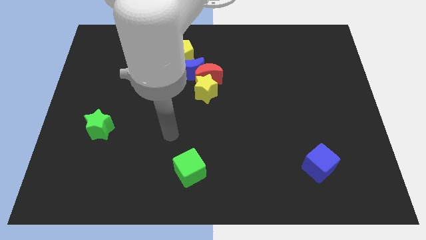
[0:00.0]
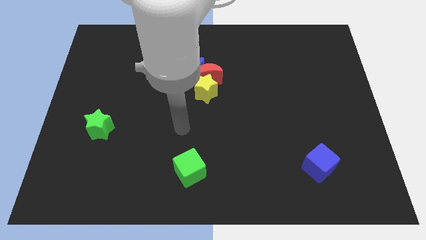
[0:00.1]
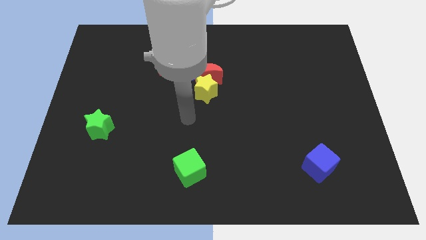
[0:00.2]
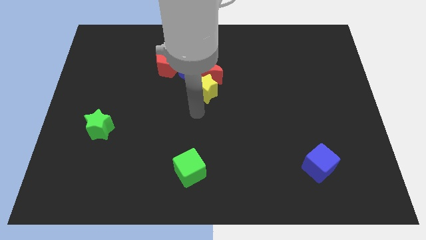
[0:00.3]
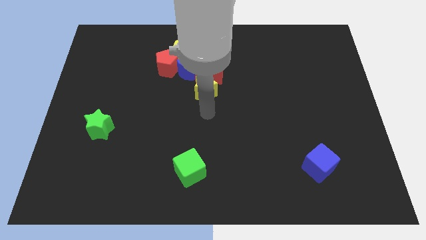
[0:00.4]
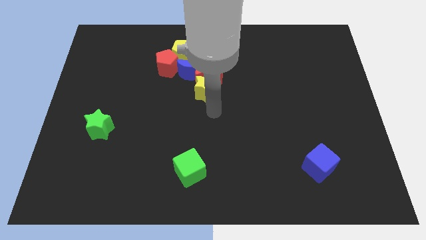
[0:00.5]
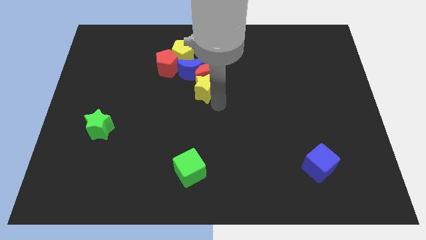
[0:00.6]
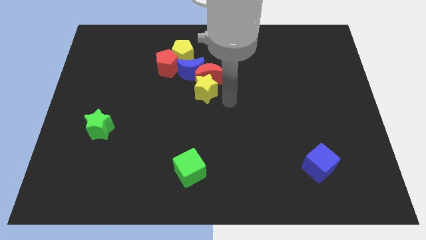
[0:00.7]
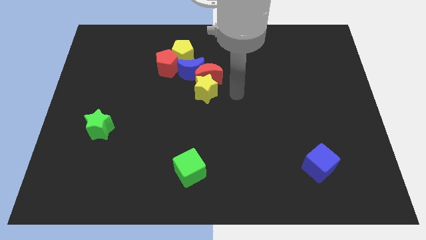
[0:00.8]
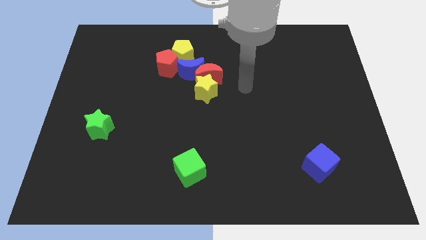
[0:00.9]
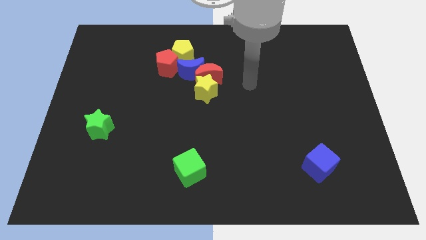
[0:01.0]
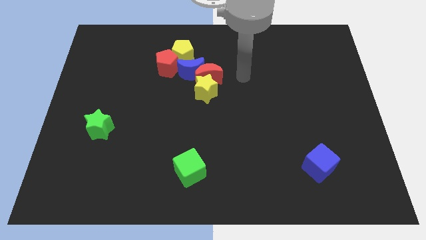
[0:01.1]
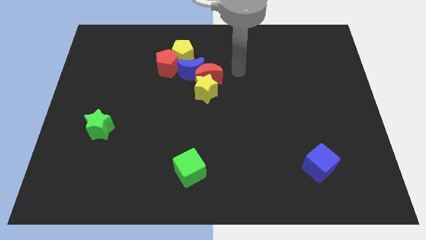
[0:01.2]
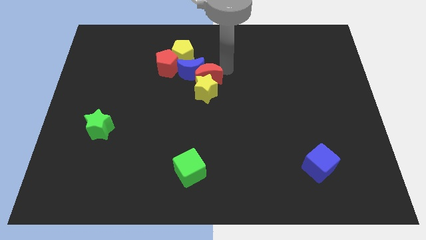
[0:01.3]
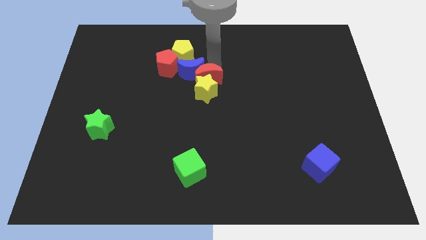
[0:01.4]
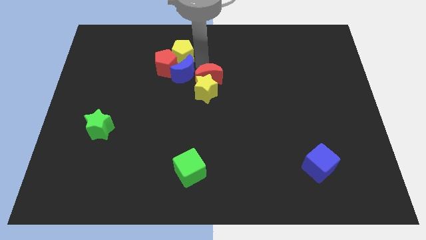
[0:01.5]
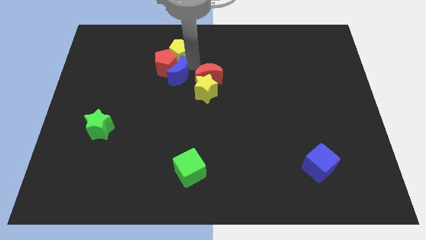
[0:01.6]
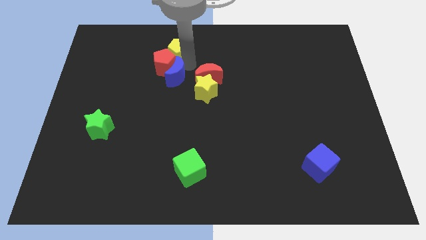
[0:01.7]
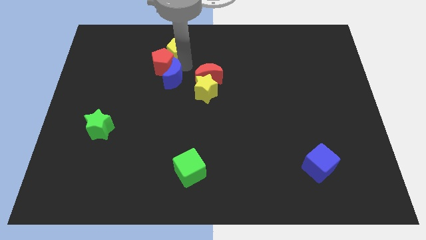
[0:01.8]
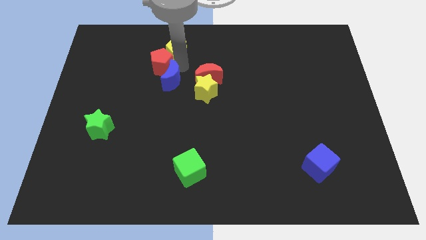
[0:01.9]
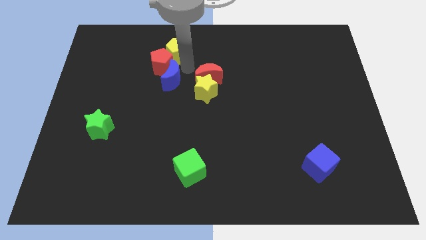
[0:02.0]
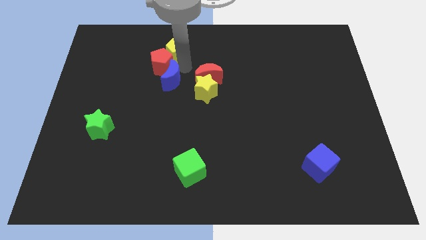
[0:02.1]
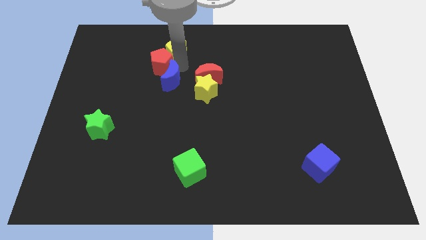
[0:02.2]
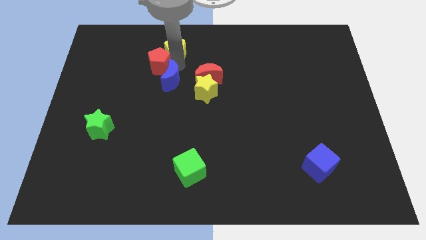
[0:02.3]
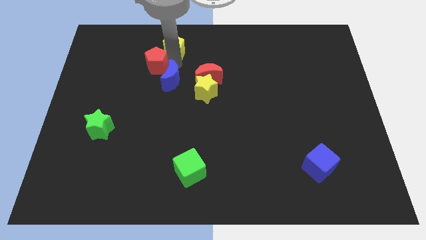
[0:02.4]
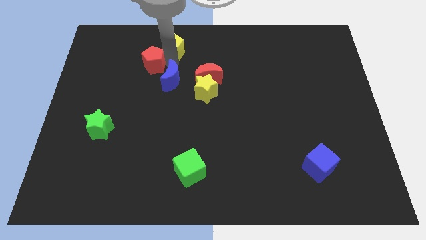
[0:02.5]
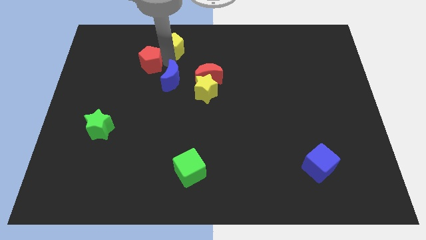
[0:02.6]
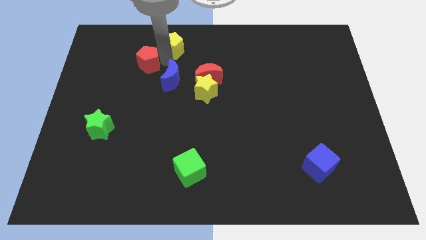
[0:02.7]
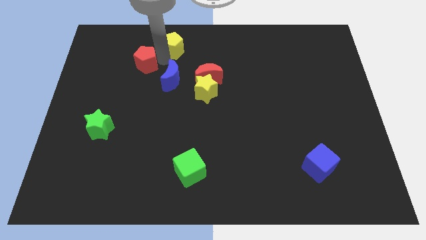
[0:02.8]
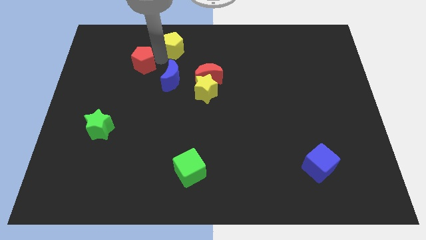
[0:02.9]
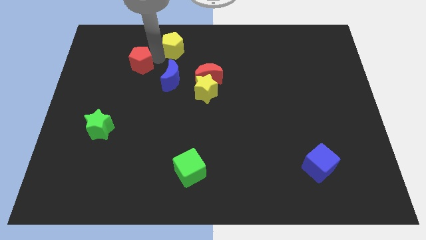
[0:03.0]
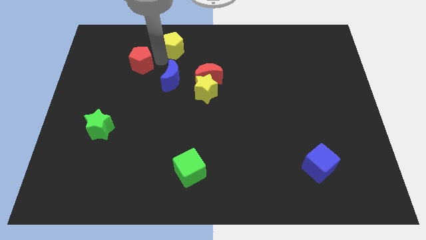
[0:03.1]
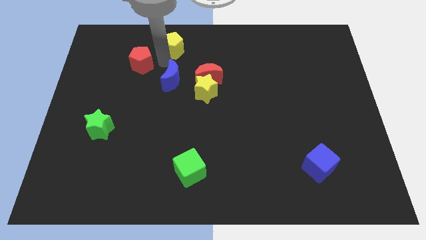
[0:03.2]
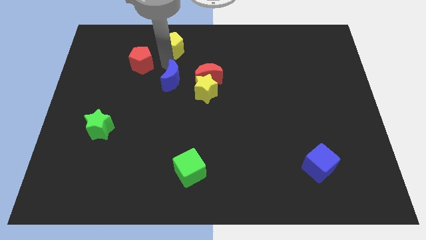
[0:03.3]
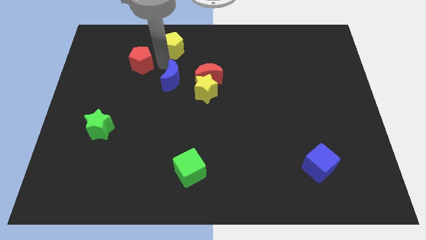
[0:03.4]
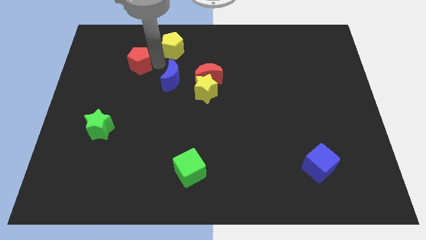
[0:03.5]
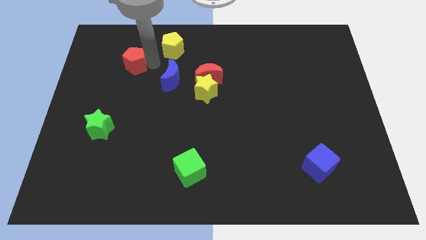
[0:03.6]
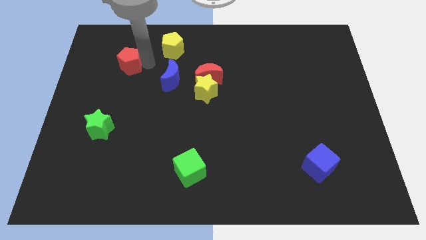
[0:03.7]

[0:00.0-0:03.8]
move the red pentagon away from the yellow pentagon and blue moon

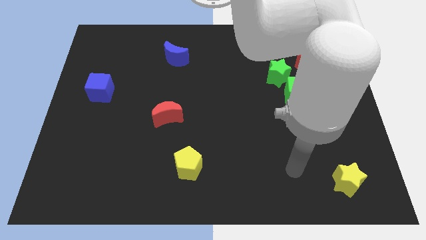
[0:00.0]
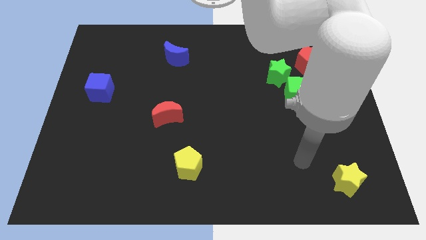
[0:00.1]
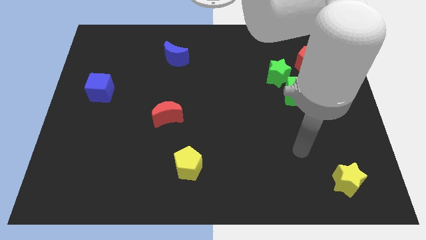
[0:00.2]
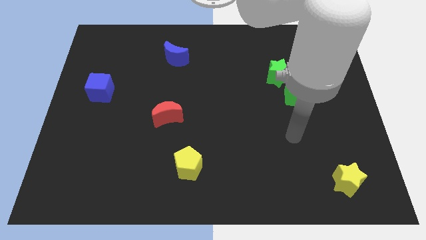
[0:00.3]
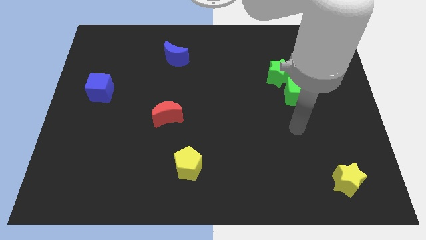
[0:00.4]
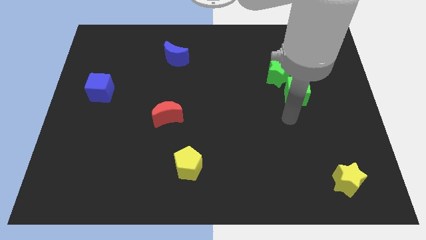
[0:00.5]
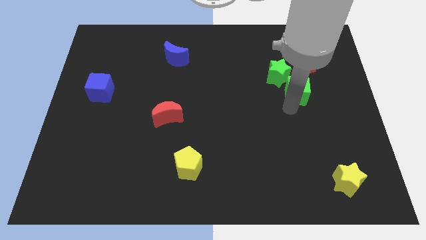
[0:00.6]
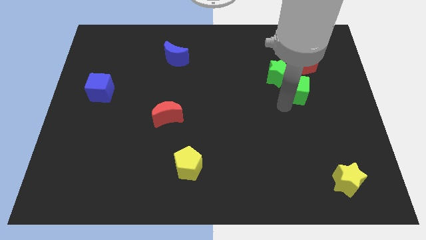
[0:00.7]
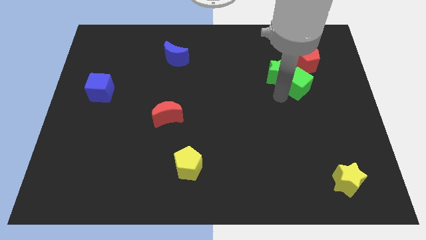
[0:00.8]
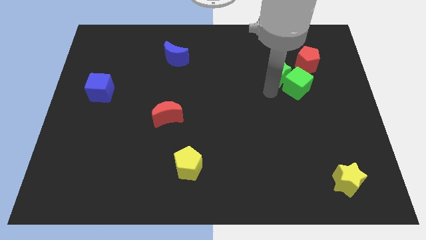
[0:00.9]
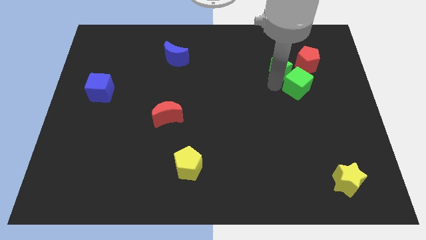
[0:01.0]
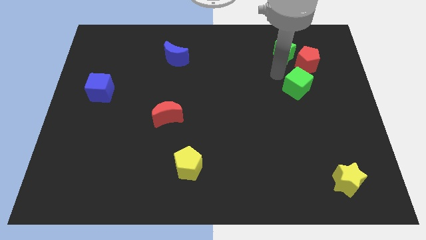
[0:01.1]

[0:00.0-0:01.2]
move the green cube away from the green star

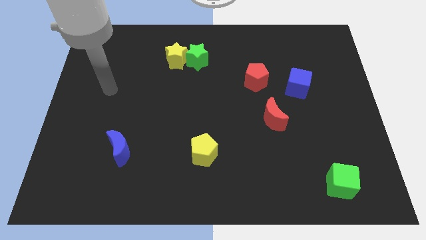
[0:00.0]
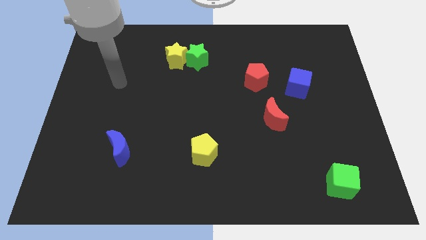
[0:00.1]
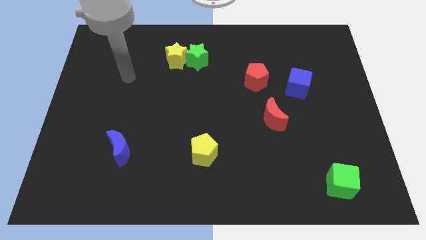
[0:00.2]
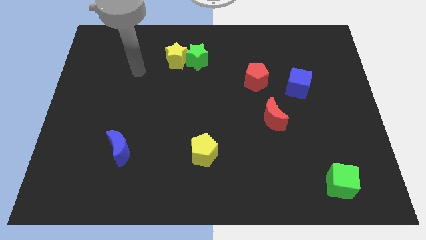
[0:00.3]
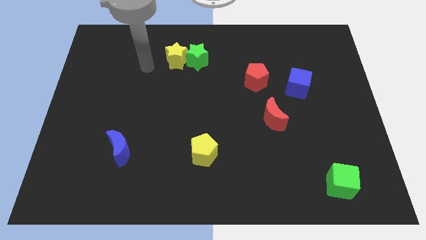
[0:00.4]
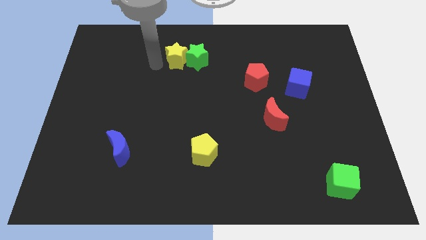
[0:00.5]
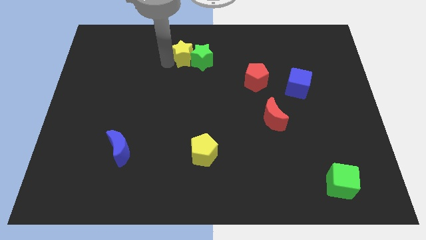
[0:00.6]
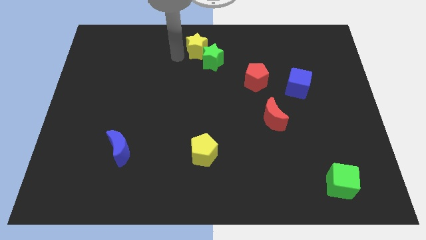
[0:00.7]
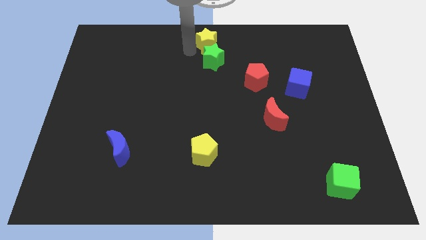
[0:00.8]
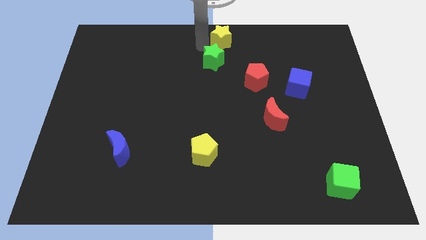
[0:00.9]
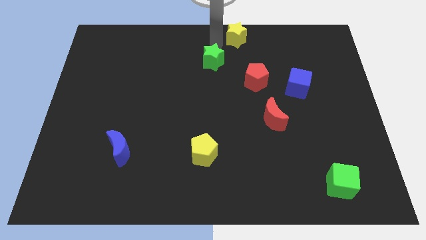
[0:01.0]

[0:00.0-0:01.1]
separate the green star from the yellow star

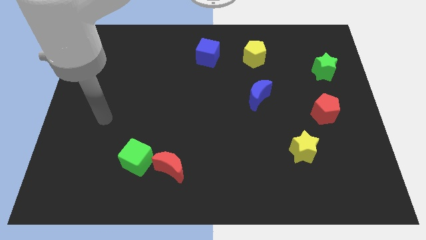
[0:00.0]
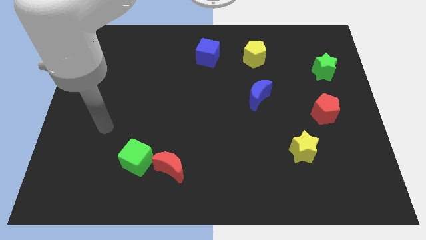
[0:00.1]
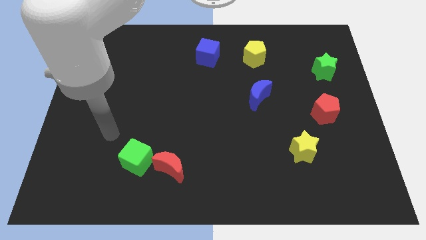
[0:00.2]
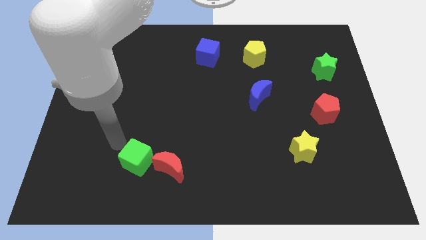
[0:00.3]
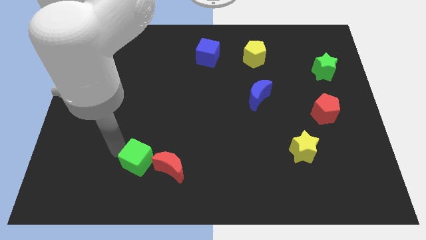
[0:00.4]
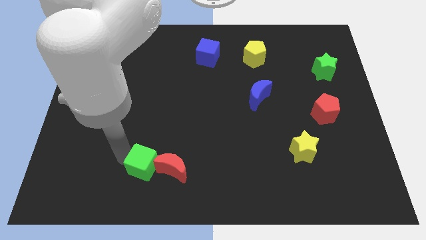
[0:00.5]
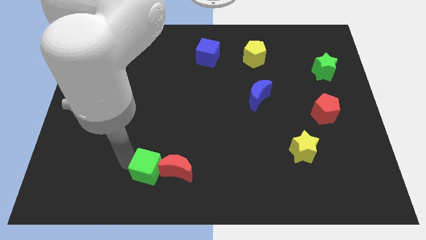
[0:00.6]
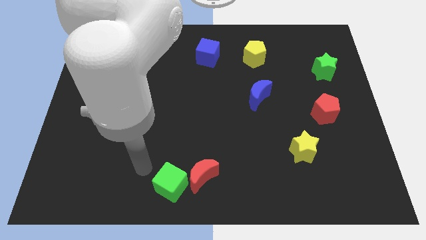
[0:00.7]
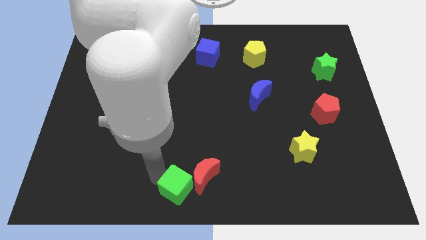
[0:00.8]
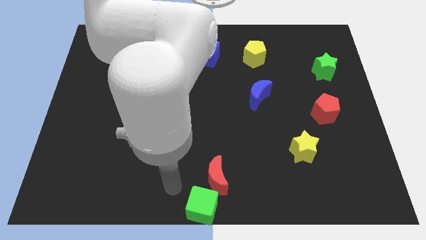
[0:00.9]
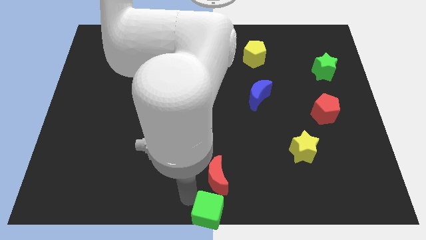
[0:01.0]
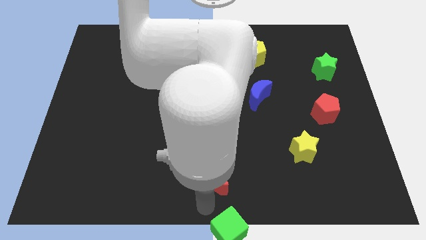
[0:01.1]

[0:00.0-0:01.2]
move the red moon away from the green cube

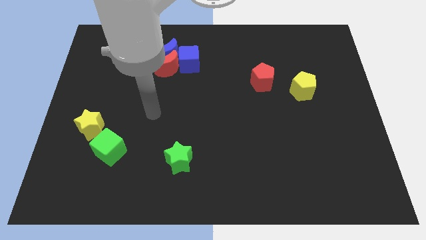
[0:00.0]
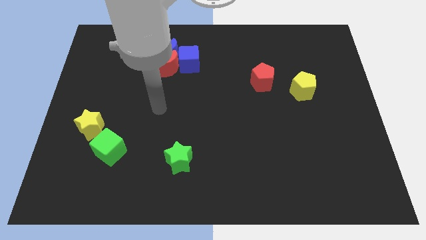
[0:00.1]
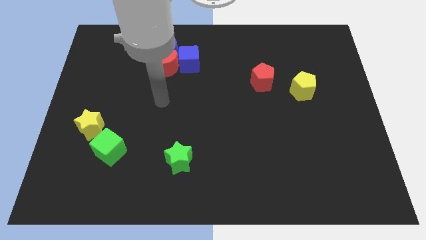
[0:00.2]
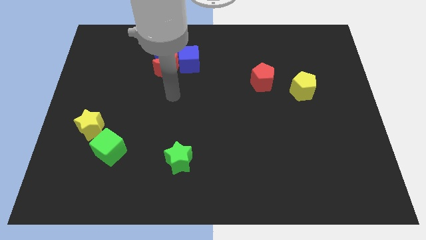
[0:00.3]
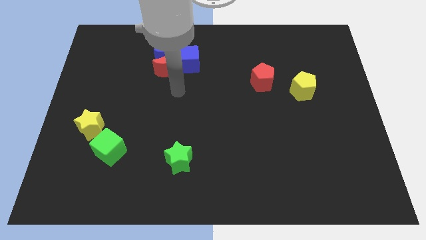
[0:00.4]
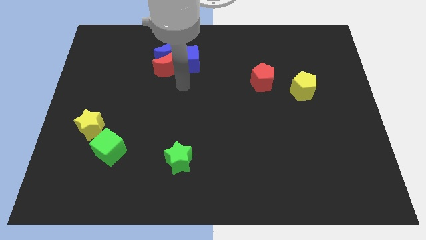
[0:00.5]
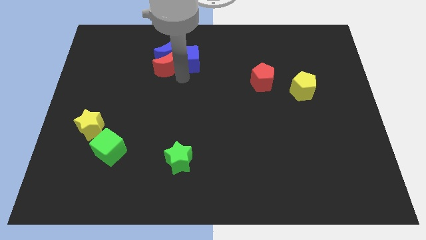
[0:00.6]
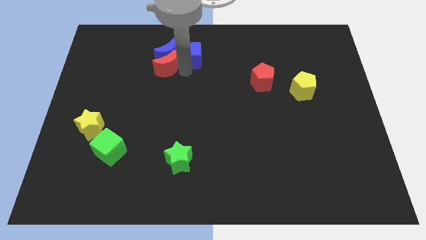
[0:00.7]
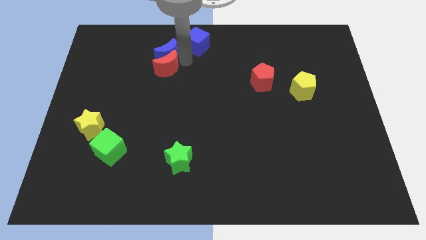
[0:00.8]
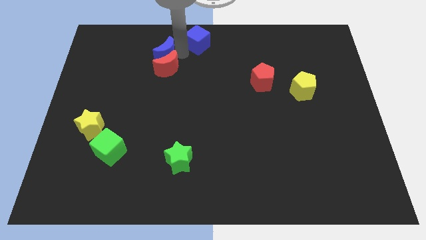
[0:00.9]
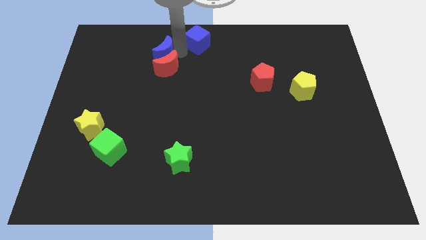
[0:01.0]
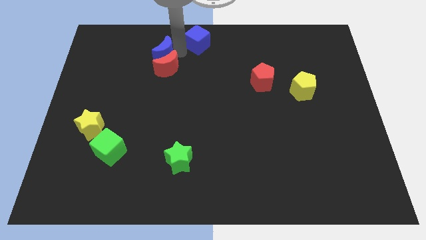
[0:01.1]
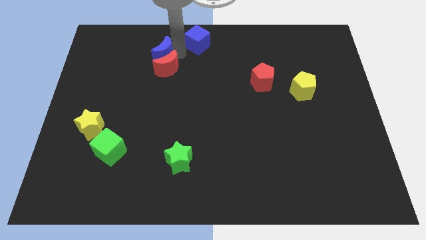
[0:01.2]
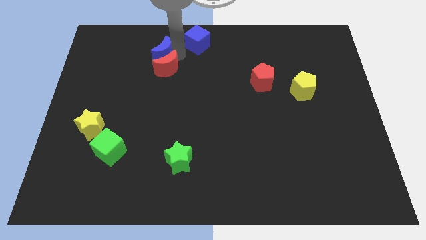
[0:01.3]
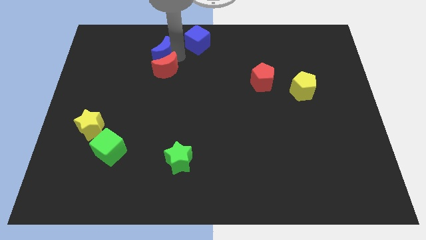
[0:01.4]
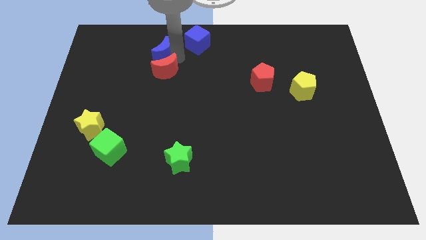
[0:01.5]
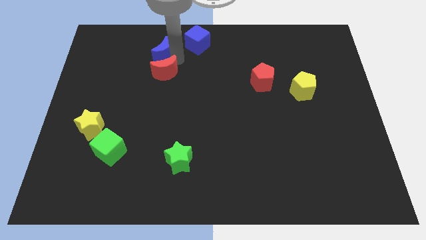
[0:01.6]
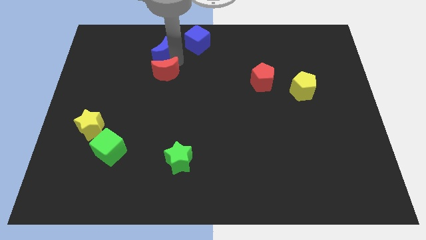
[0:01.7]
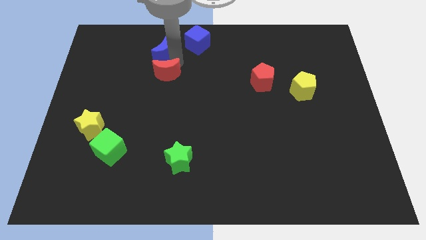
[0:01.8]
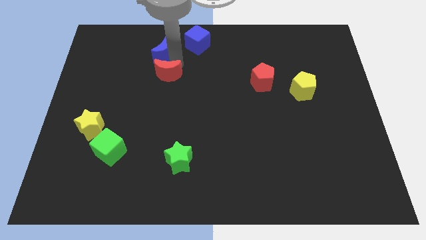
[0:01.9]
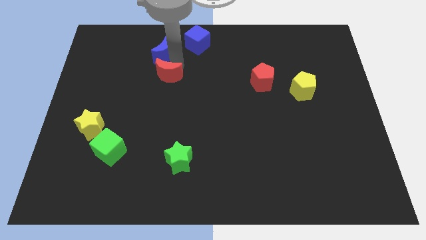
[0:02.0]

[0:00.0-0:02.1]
separate the red moon from the blue moon and blue cube

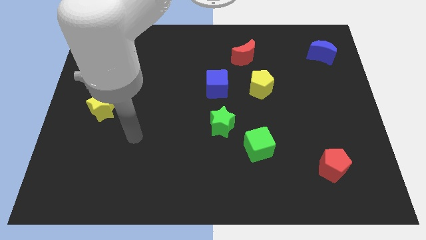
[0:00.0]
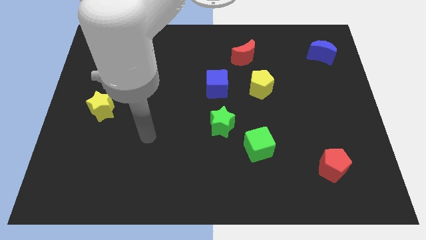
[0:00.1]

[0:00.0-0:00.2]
separate the green cube from the green star
